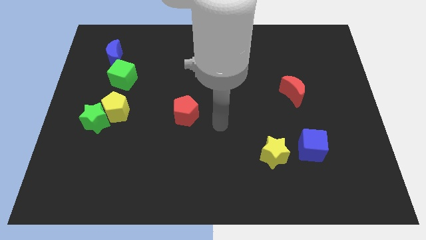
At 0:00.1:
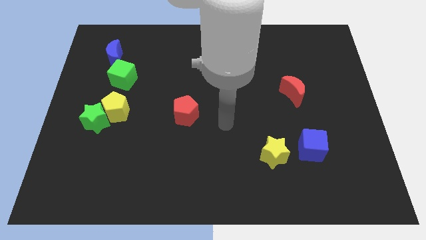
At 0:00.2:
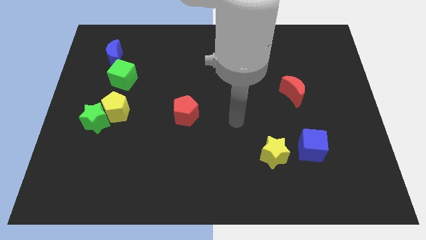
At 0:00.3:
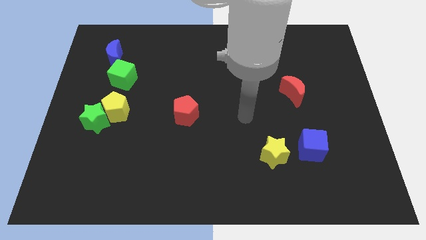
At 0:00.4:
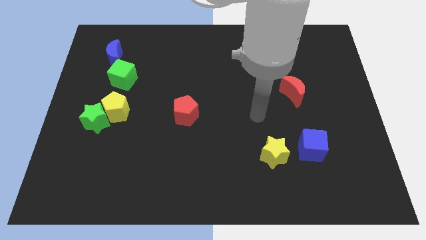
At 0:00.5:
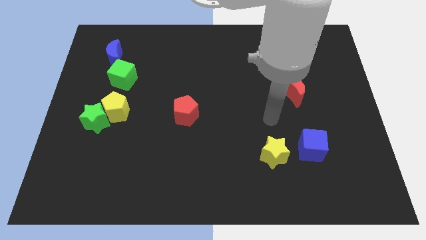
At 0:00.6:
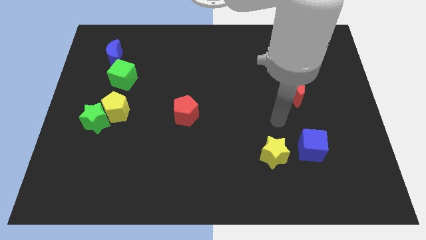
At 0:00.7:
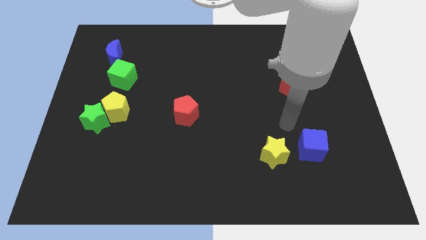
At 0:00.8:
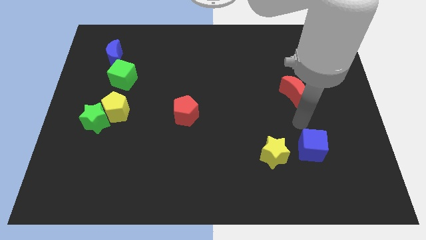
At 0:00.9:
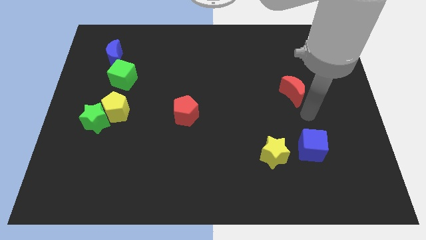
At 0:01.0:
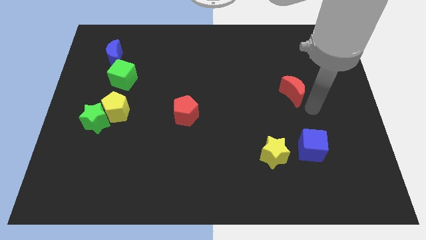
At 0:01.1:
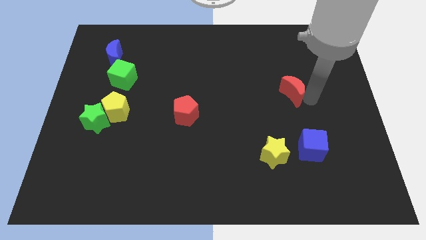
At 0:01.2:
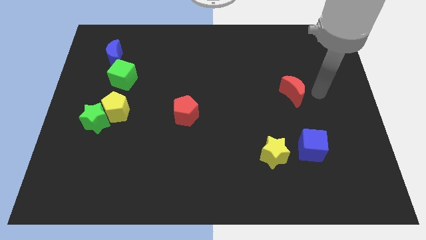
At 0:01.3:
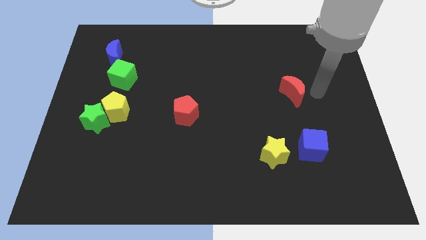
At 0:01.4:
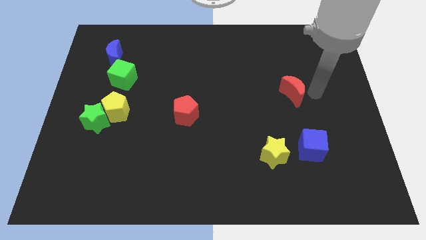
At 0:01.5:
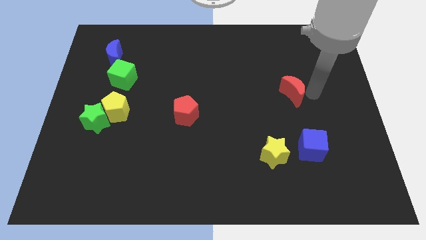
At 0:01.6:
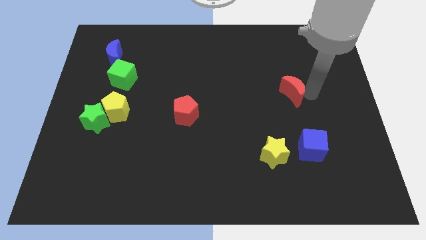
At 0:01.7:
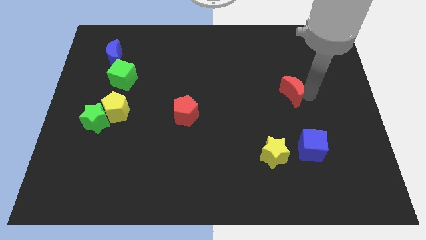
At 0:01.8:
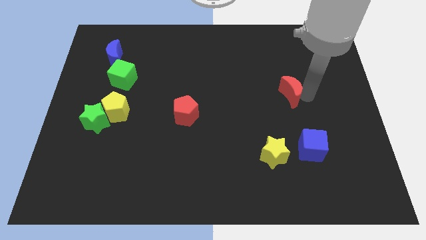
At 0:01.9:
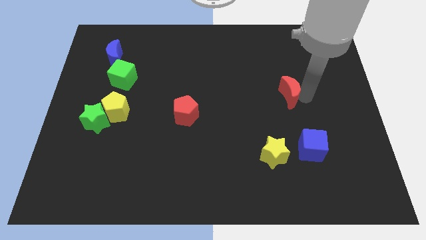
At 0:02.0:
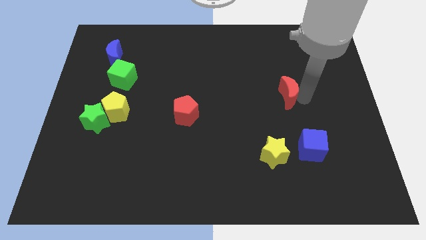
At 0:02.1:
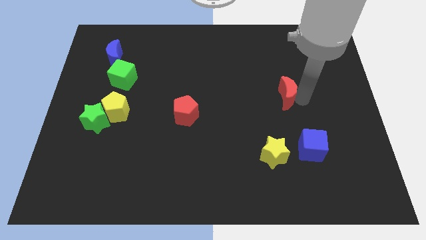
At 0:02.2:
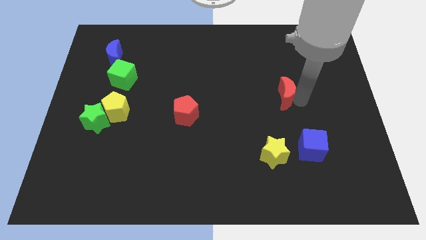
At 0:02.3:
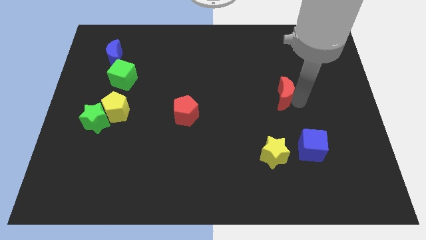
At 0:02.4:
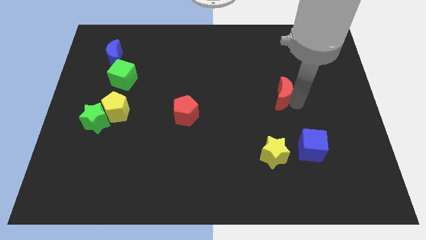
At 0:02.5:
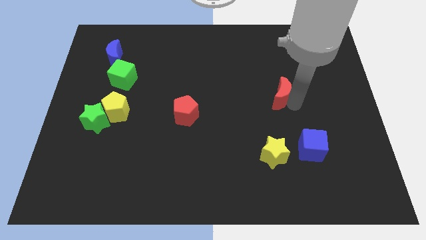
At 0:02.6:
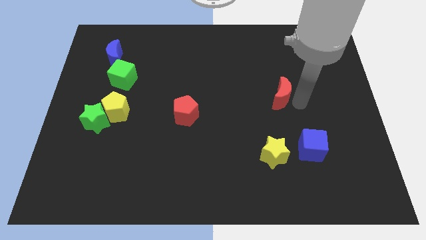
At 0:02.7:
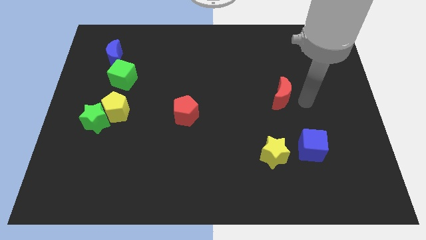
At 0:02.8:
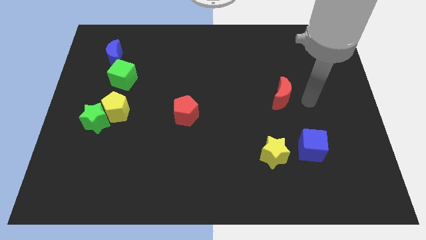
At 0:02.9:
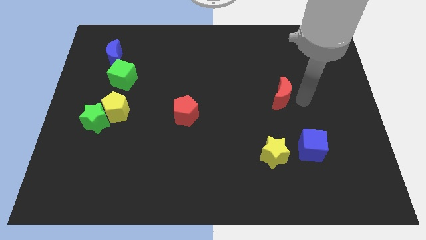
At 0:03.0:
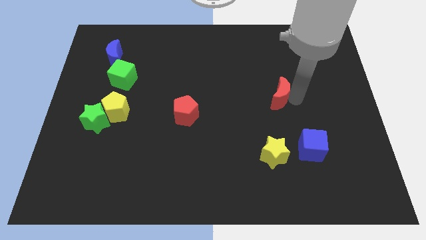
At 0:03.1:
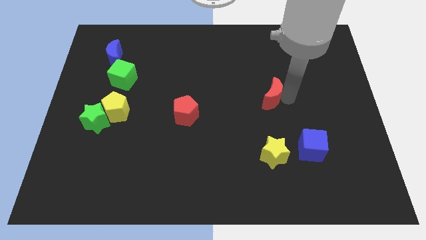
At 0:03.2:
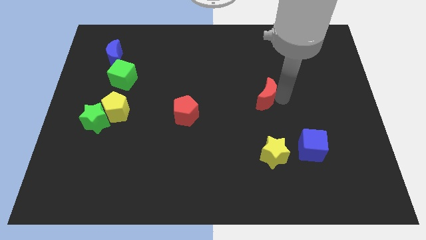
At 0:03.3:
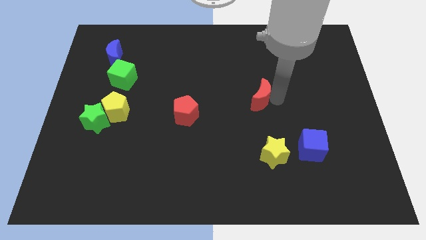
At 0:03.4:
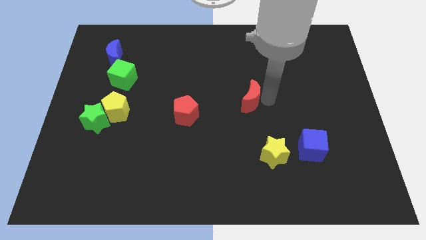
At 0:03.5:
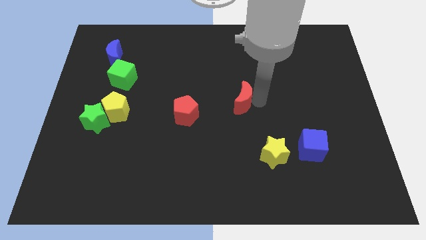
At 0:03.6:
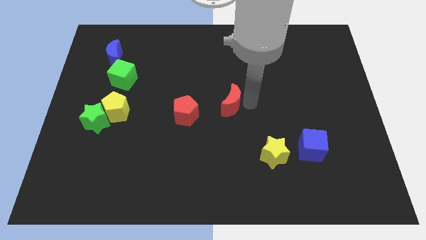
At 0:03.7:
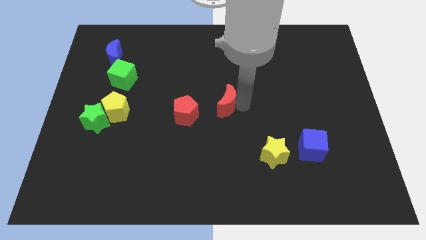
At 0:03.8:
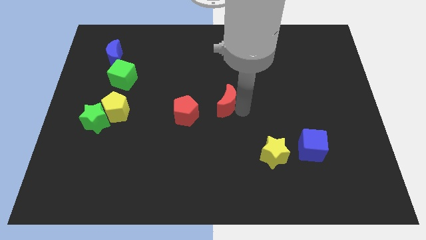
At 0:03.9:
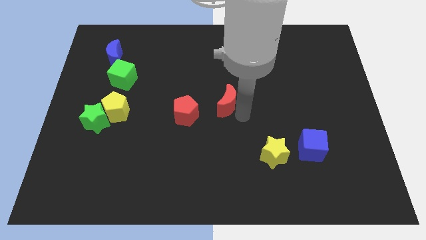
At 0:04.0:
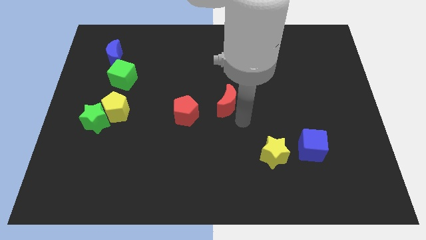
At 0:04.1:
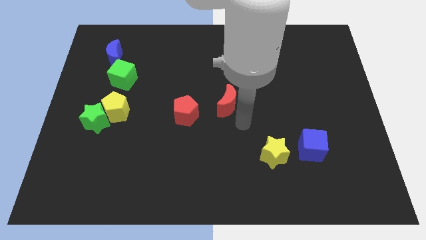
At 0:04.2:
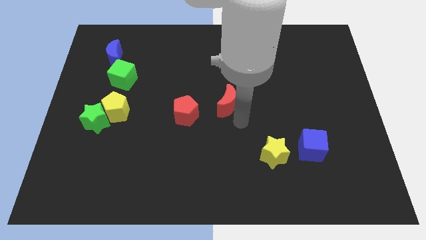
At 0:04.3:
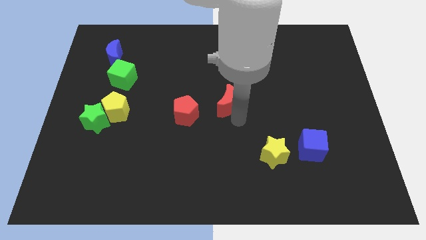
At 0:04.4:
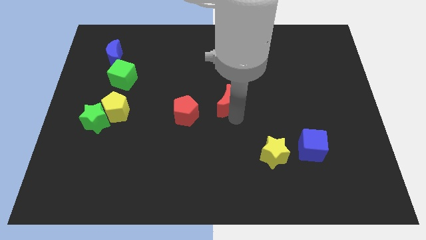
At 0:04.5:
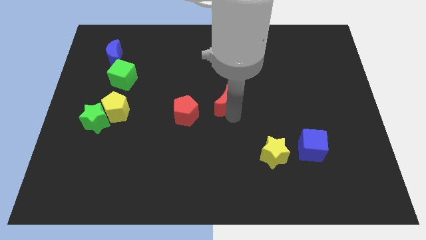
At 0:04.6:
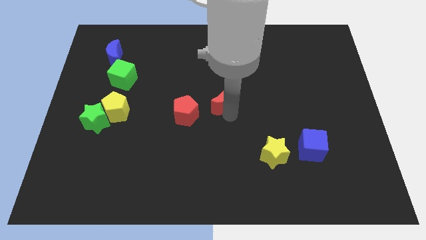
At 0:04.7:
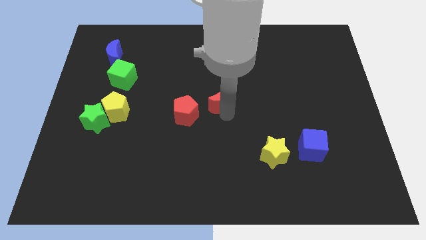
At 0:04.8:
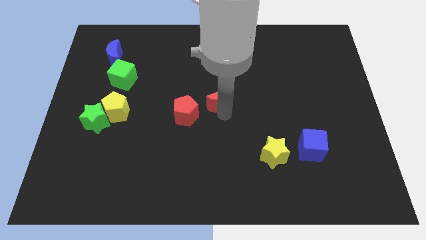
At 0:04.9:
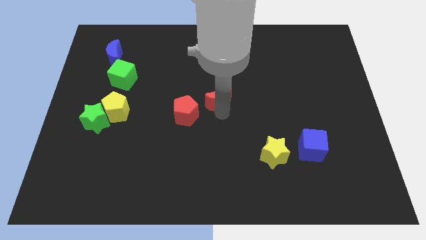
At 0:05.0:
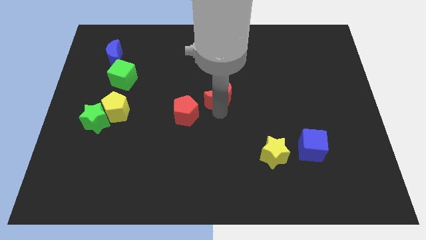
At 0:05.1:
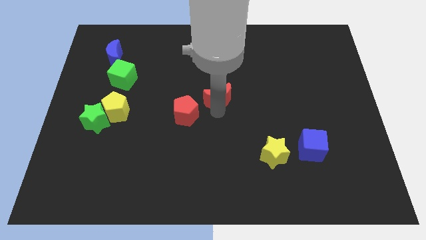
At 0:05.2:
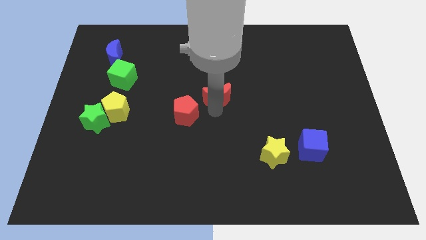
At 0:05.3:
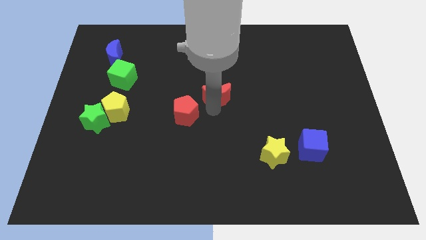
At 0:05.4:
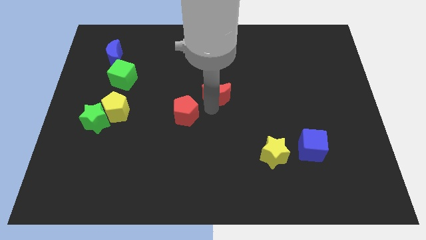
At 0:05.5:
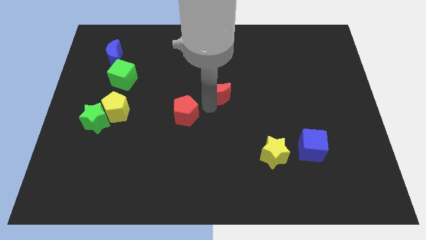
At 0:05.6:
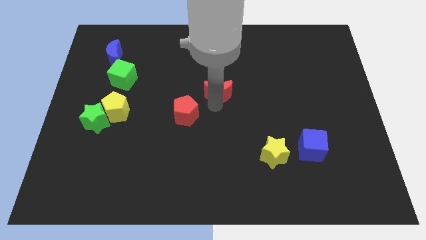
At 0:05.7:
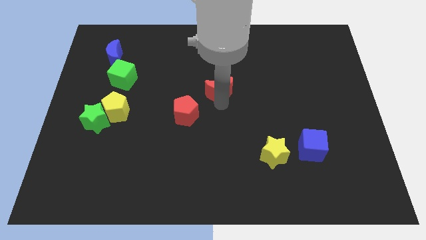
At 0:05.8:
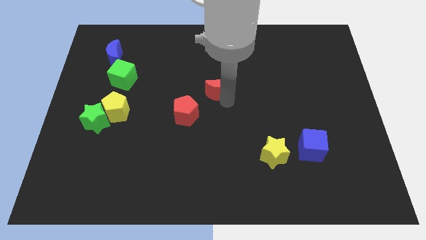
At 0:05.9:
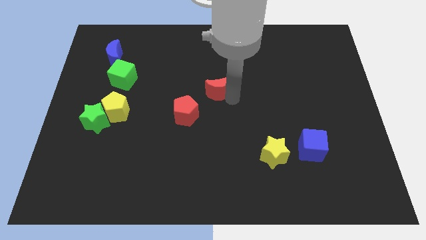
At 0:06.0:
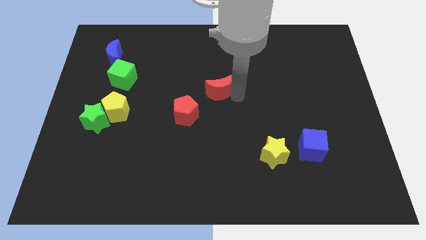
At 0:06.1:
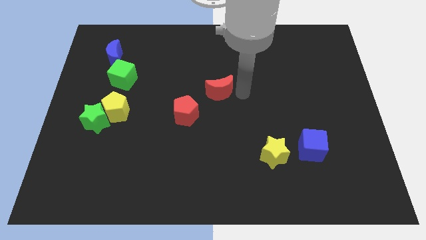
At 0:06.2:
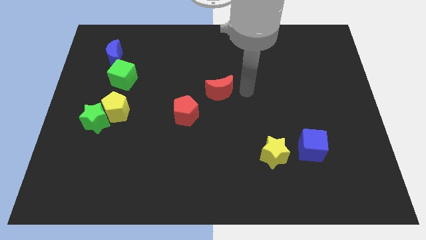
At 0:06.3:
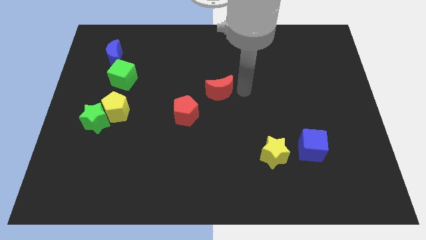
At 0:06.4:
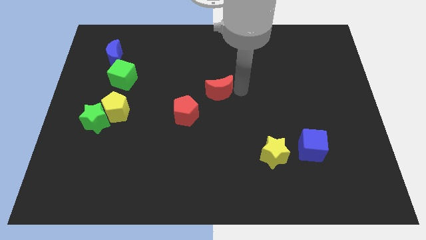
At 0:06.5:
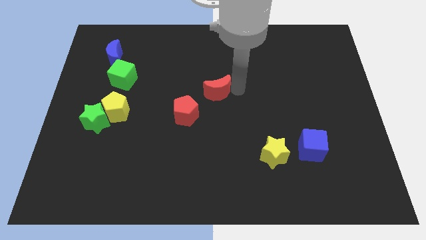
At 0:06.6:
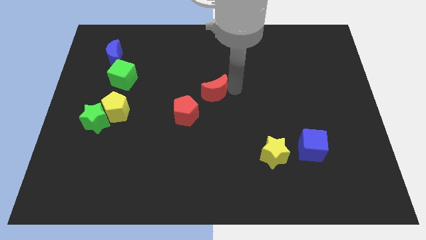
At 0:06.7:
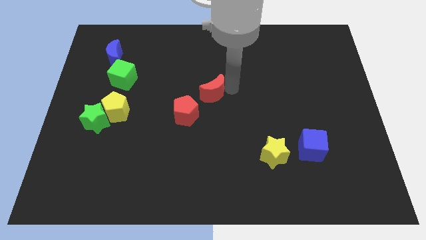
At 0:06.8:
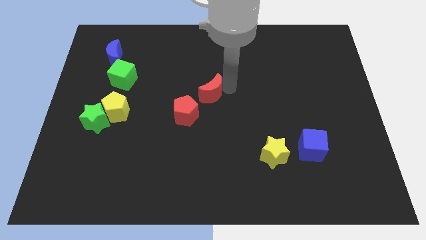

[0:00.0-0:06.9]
push the red moon left

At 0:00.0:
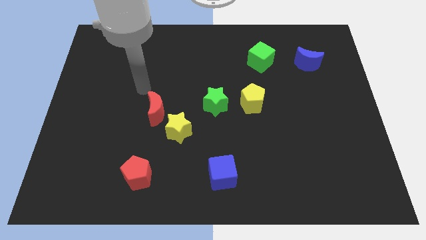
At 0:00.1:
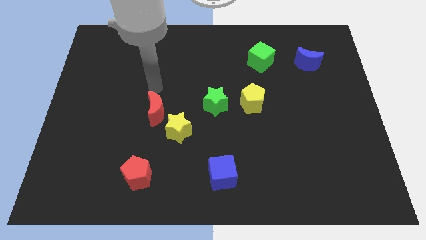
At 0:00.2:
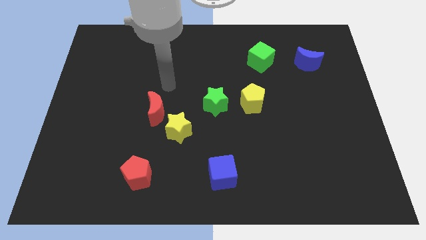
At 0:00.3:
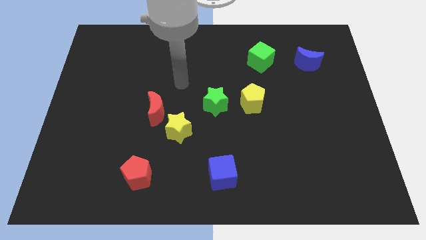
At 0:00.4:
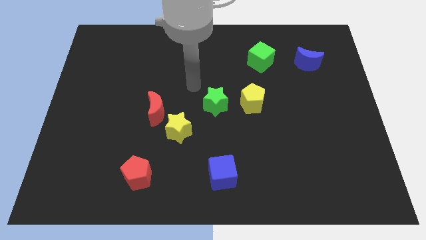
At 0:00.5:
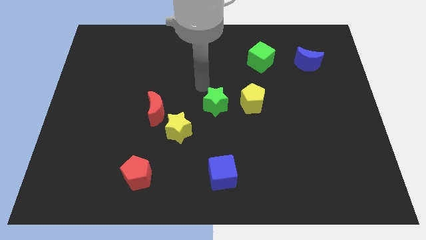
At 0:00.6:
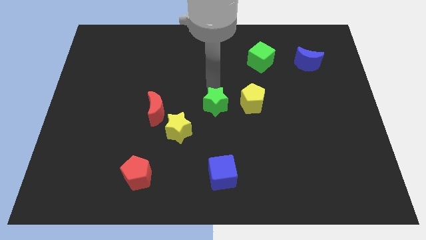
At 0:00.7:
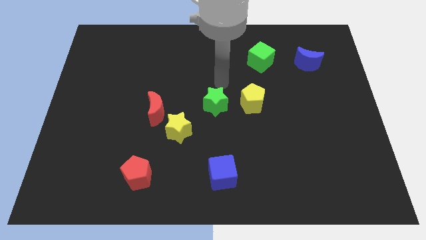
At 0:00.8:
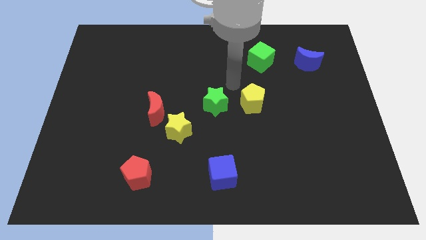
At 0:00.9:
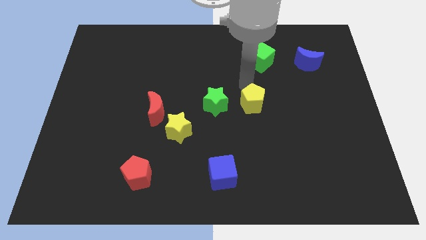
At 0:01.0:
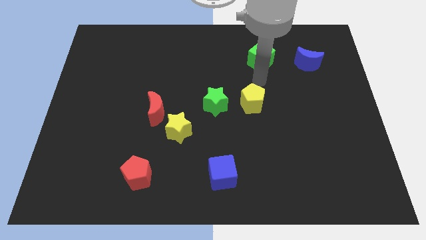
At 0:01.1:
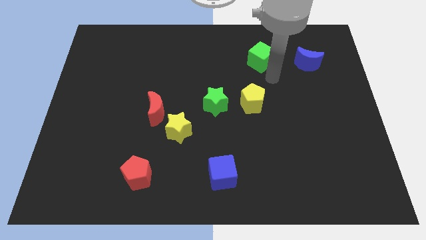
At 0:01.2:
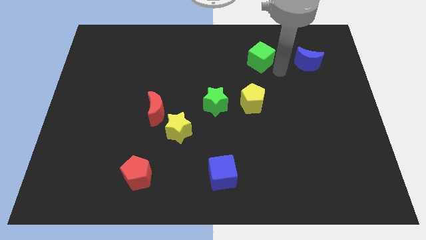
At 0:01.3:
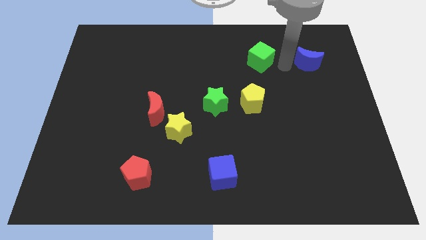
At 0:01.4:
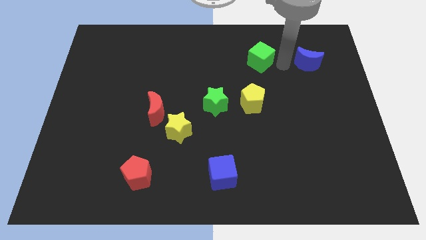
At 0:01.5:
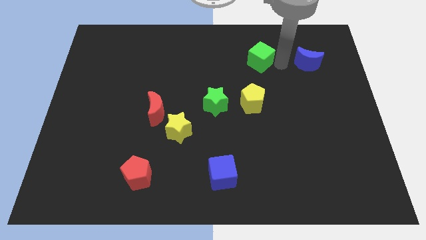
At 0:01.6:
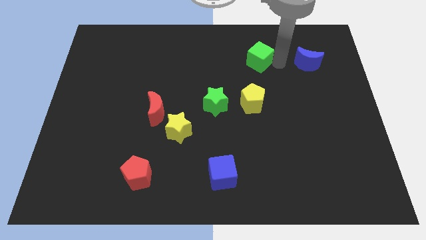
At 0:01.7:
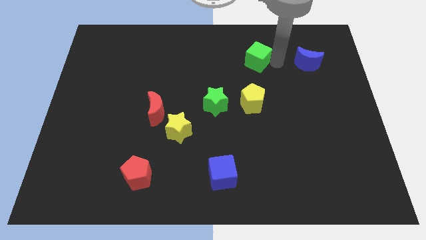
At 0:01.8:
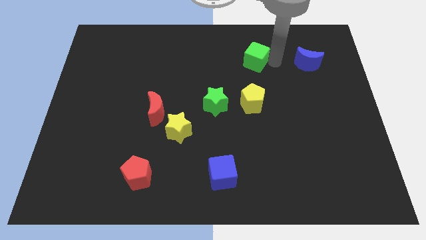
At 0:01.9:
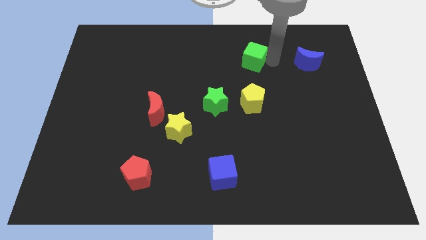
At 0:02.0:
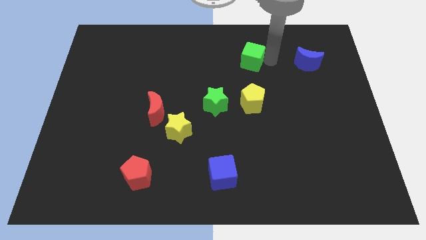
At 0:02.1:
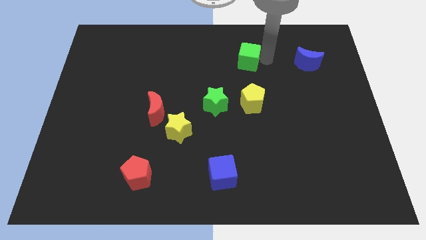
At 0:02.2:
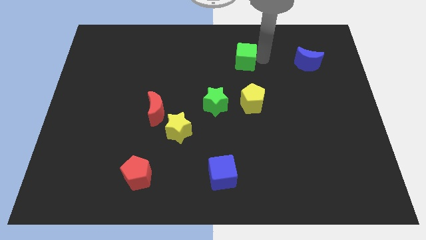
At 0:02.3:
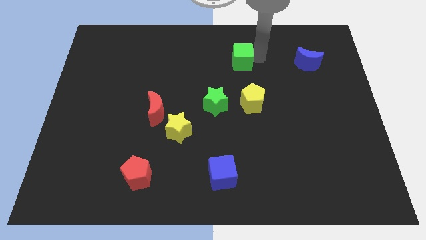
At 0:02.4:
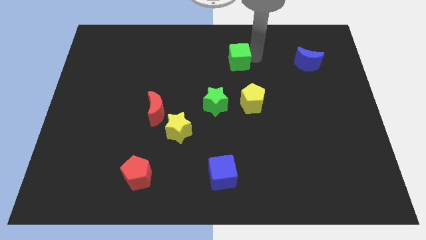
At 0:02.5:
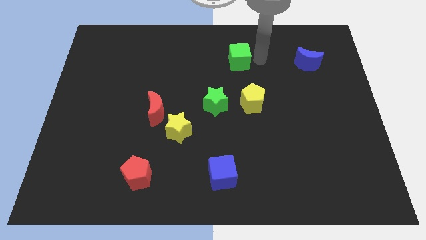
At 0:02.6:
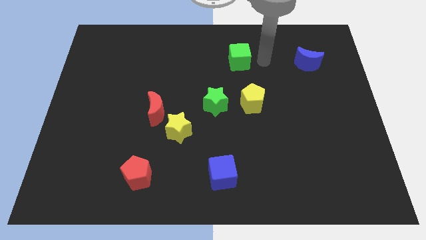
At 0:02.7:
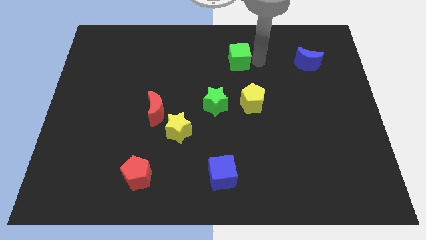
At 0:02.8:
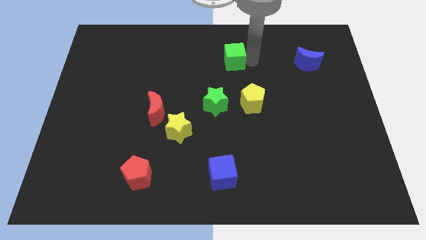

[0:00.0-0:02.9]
slightly move the green cube left
